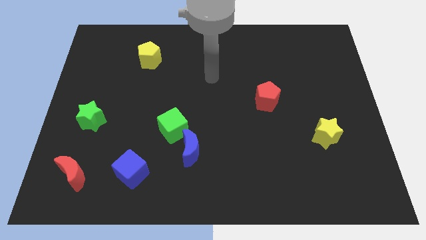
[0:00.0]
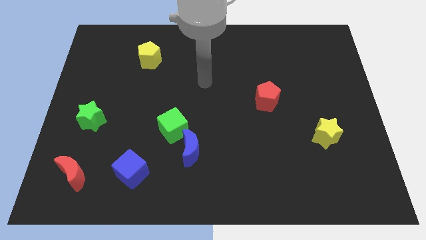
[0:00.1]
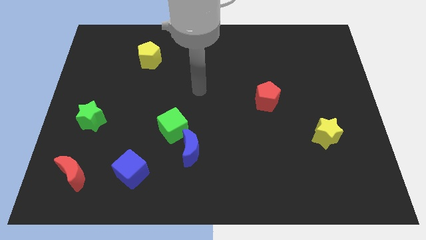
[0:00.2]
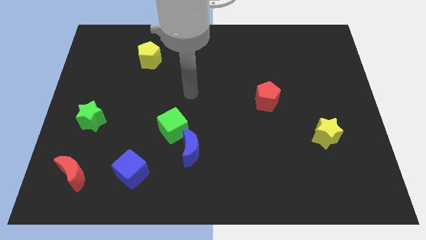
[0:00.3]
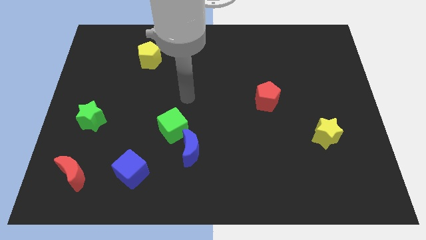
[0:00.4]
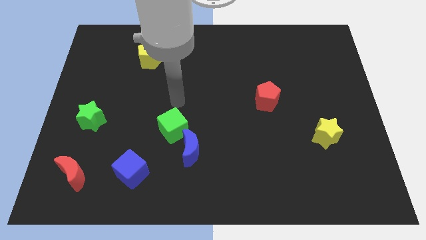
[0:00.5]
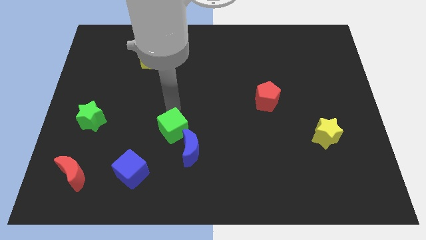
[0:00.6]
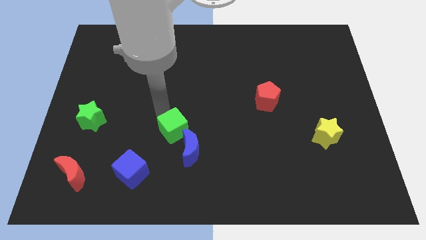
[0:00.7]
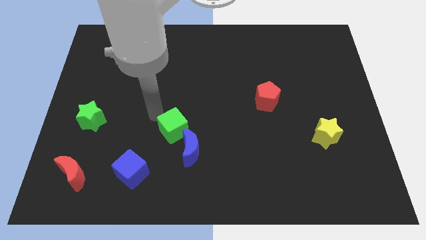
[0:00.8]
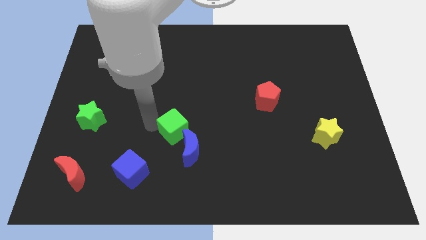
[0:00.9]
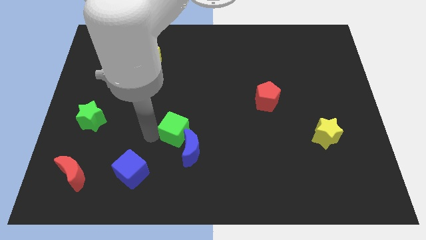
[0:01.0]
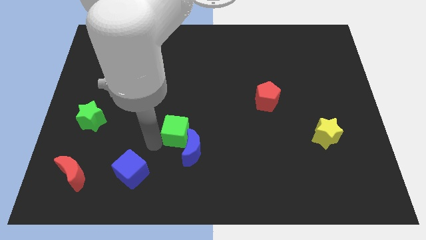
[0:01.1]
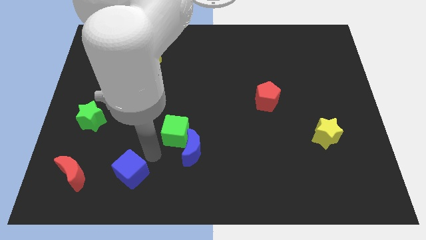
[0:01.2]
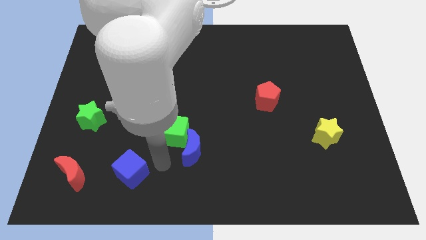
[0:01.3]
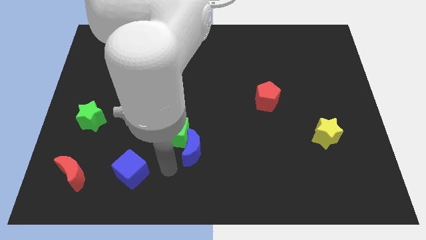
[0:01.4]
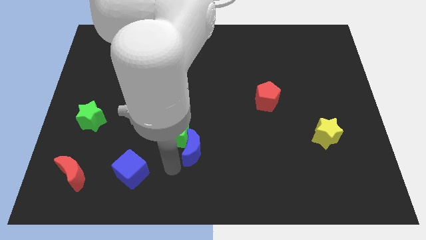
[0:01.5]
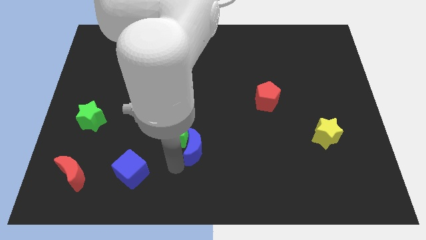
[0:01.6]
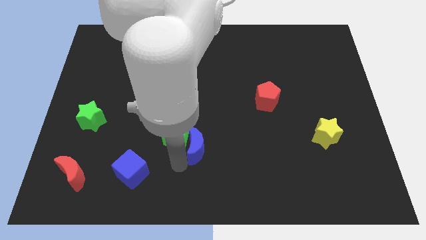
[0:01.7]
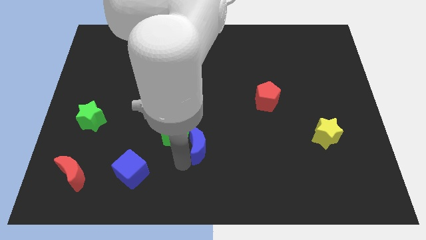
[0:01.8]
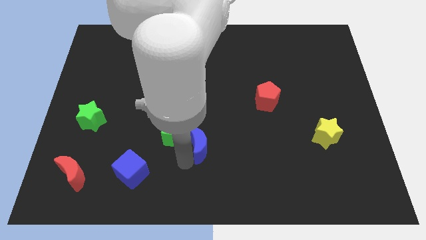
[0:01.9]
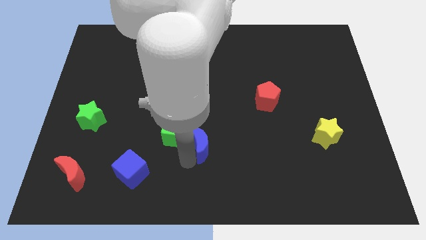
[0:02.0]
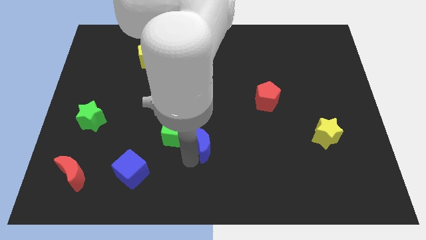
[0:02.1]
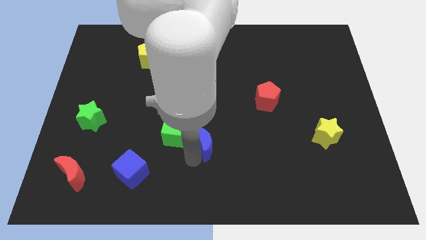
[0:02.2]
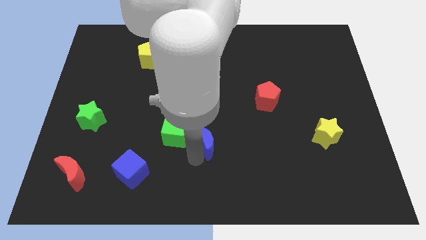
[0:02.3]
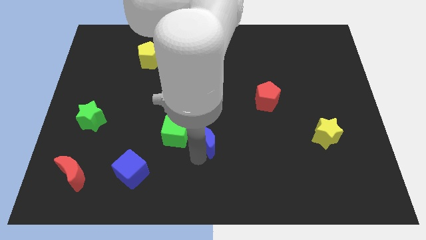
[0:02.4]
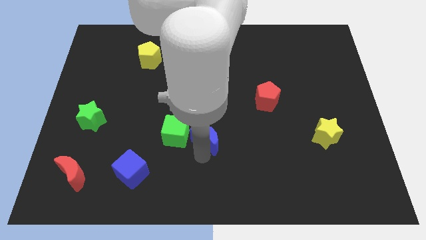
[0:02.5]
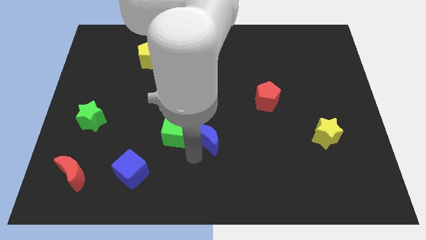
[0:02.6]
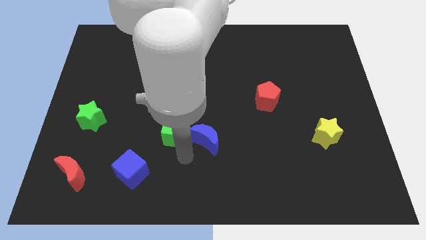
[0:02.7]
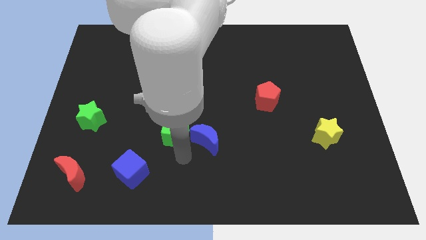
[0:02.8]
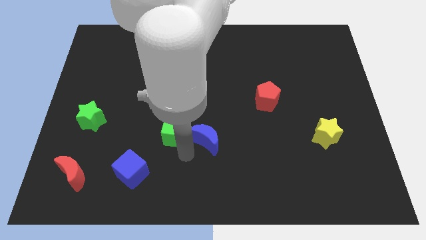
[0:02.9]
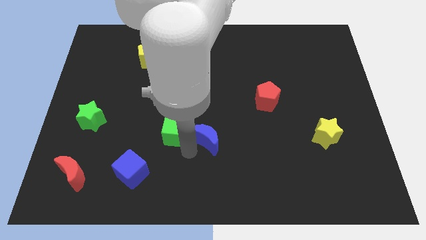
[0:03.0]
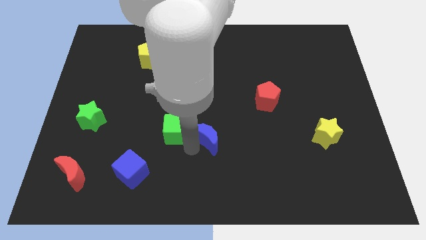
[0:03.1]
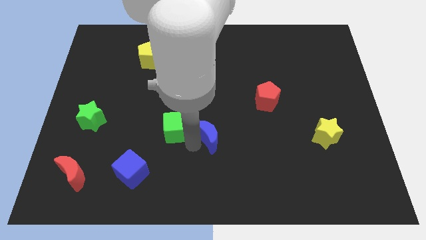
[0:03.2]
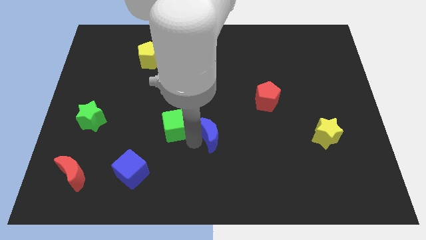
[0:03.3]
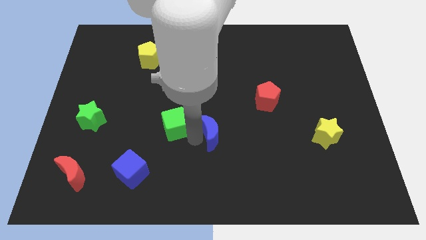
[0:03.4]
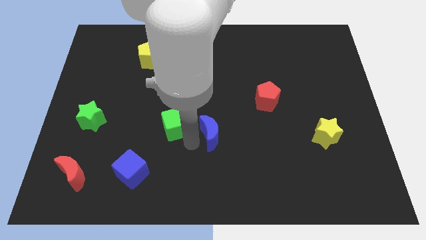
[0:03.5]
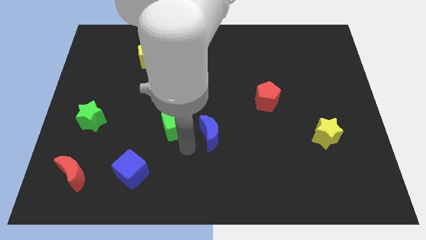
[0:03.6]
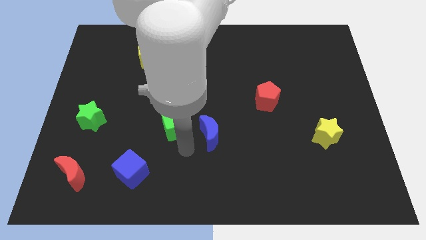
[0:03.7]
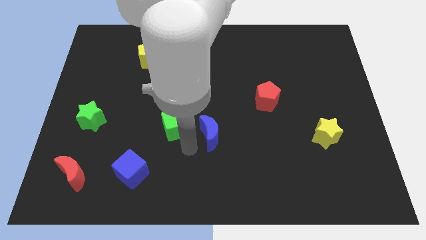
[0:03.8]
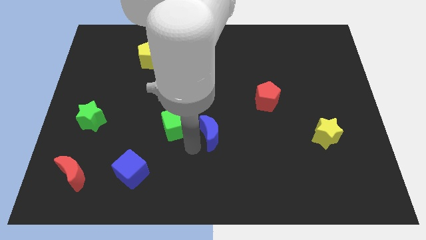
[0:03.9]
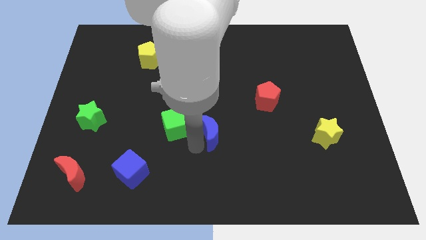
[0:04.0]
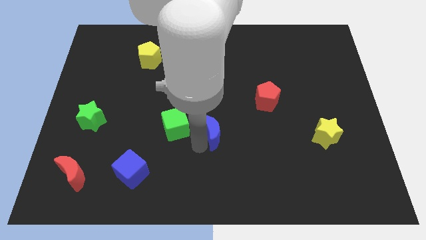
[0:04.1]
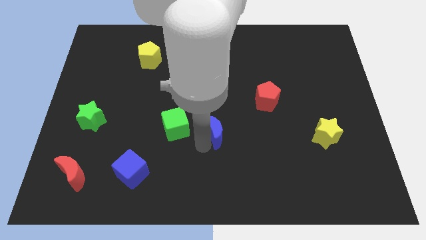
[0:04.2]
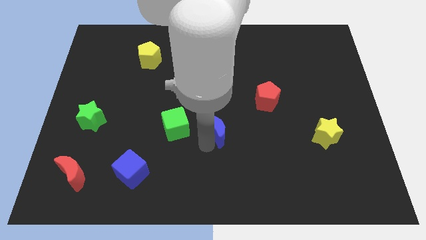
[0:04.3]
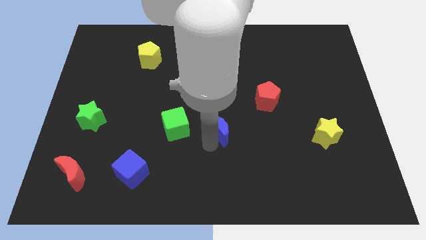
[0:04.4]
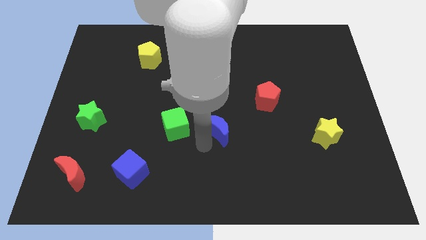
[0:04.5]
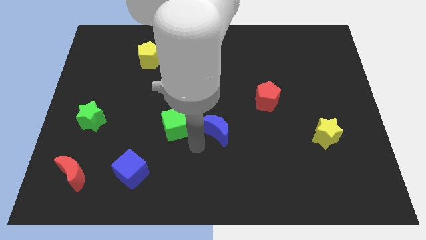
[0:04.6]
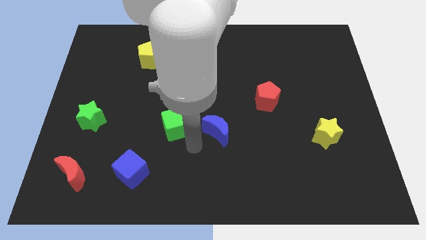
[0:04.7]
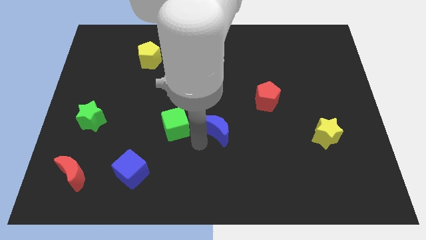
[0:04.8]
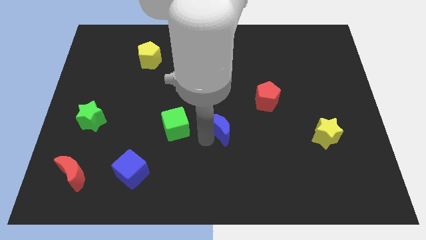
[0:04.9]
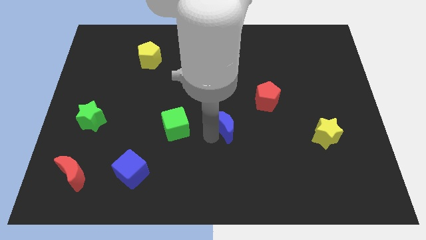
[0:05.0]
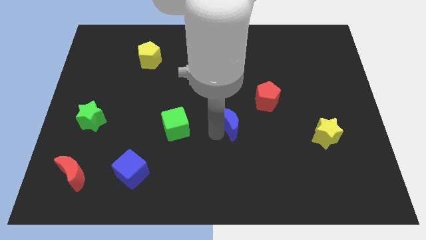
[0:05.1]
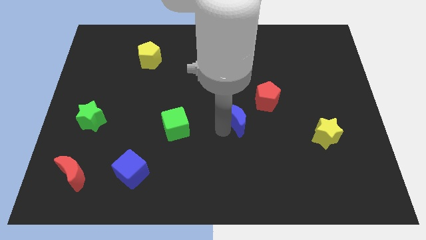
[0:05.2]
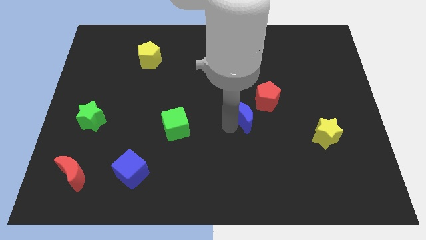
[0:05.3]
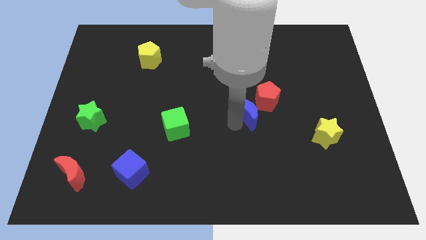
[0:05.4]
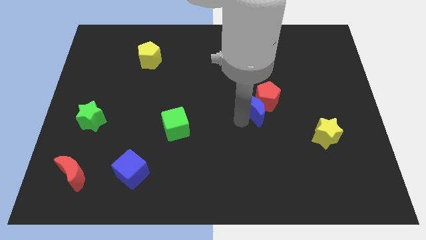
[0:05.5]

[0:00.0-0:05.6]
push the blue moon close to the red pentagon

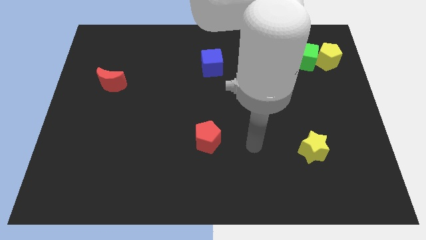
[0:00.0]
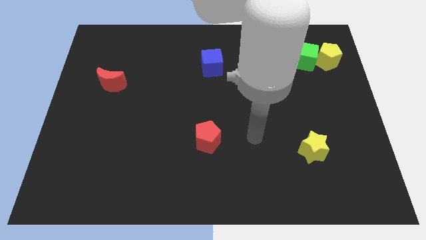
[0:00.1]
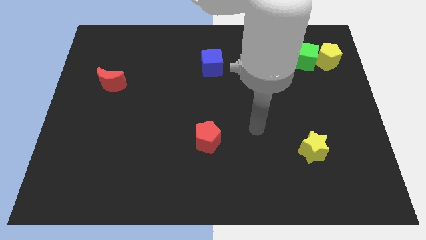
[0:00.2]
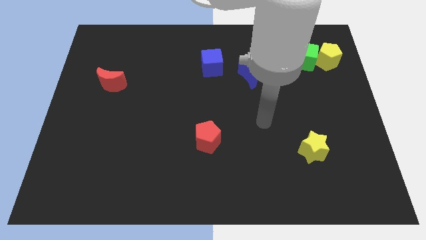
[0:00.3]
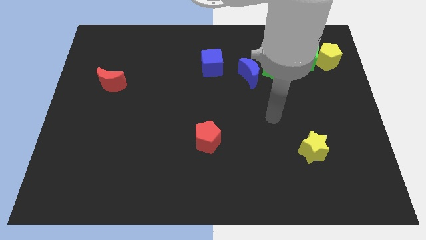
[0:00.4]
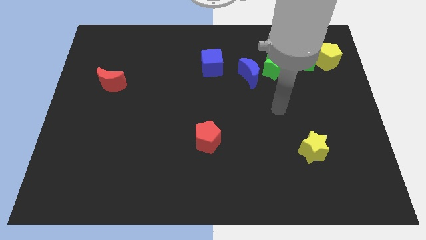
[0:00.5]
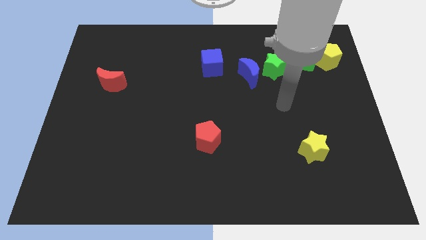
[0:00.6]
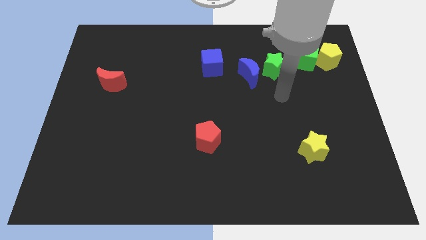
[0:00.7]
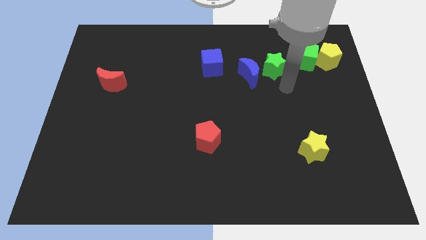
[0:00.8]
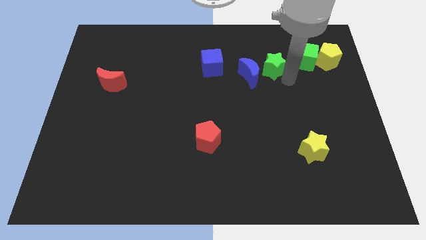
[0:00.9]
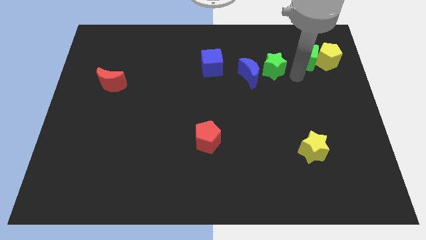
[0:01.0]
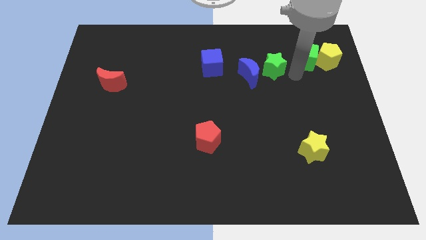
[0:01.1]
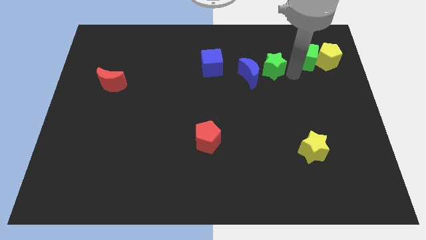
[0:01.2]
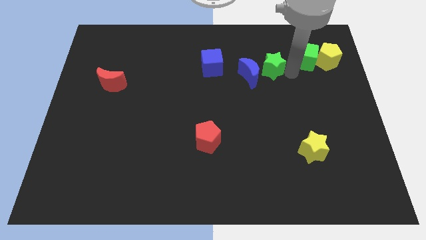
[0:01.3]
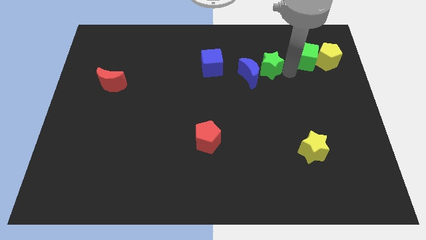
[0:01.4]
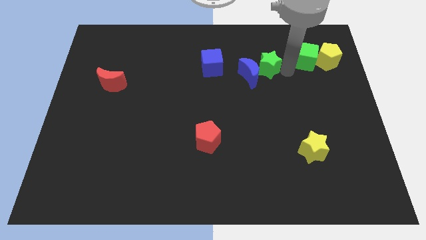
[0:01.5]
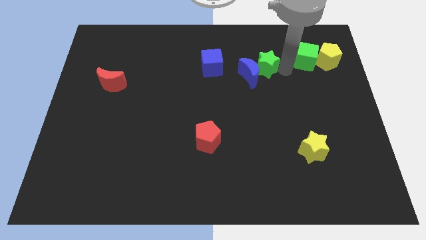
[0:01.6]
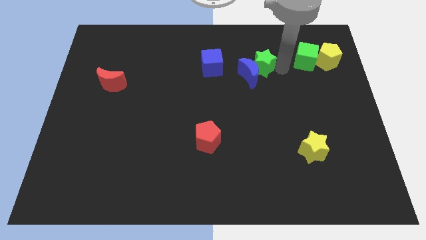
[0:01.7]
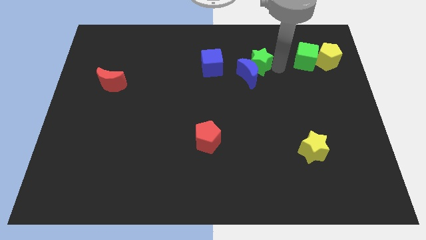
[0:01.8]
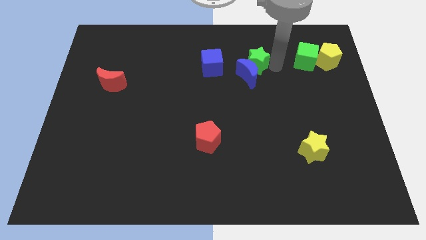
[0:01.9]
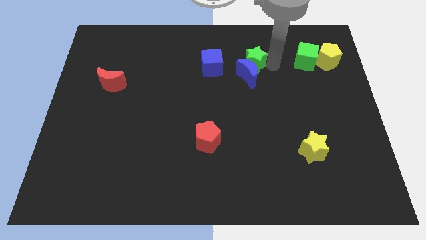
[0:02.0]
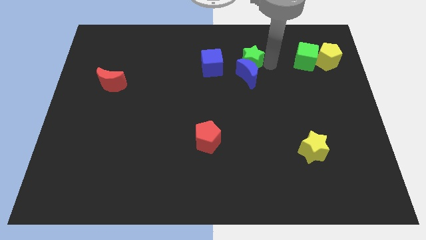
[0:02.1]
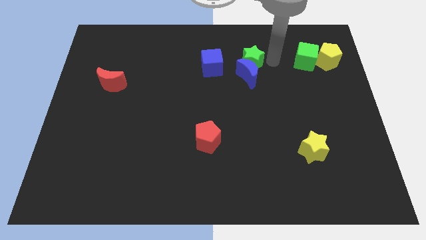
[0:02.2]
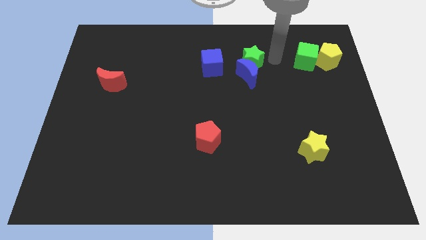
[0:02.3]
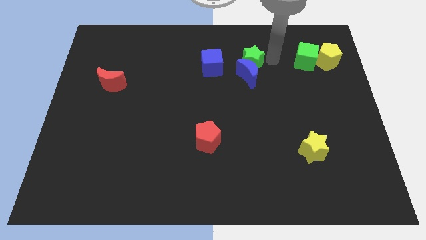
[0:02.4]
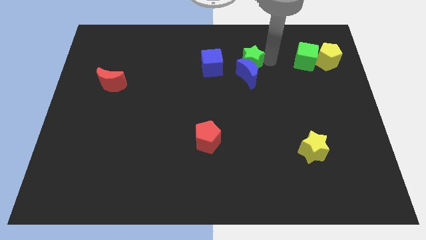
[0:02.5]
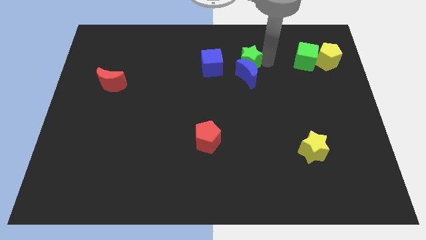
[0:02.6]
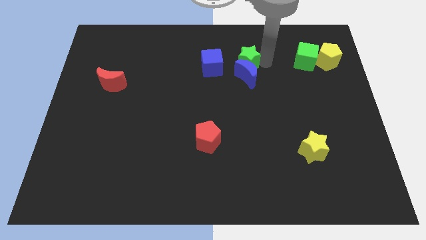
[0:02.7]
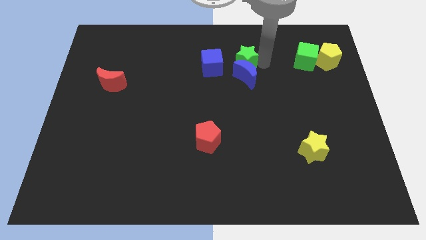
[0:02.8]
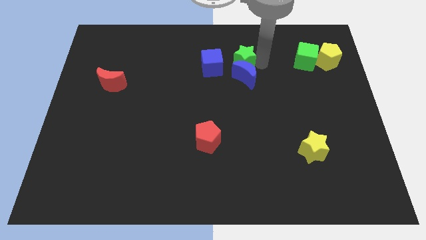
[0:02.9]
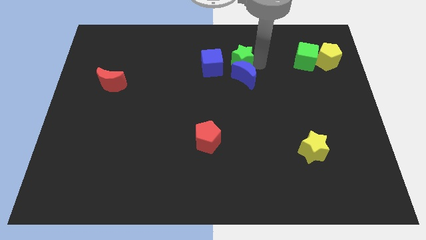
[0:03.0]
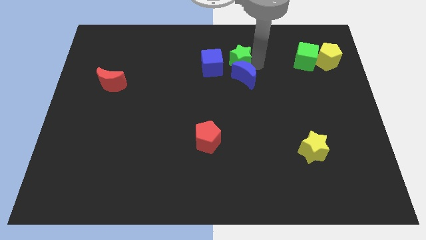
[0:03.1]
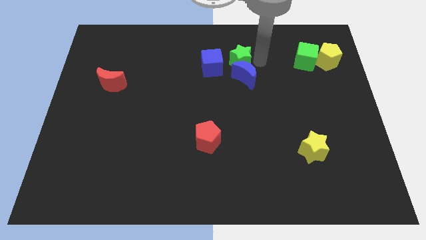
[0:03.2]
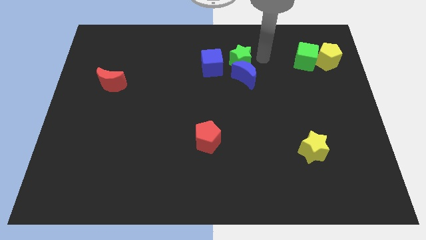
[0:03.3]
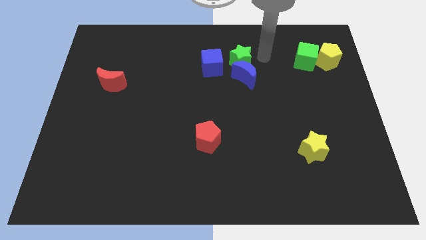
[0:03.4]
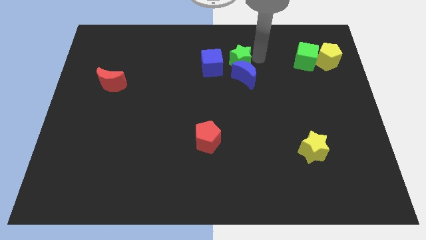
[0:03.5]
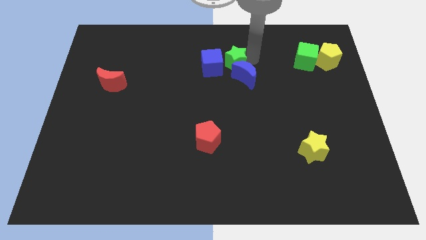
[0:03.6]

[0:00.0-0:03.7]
push the green star next to the blue cube
